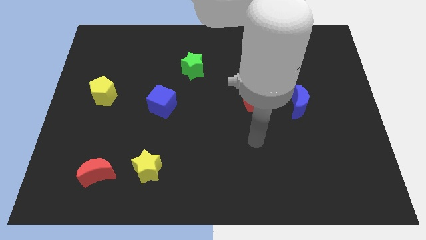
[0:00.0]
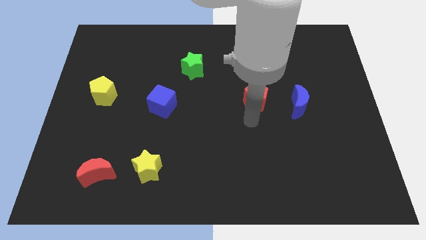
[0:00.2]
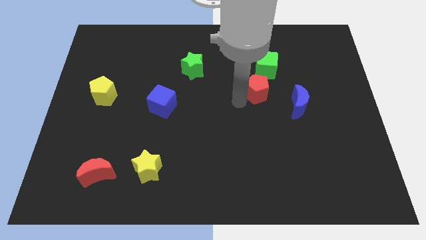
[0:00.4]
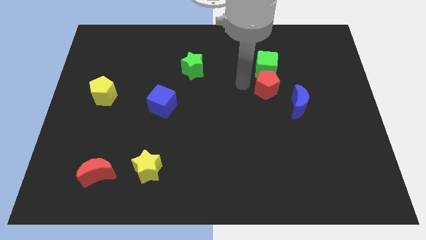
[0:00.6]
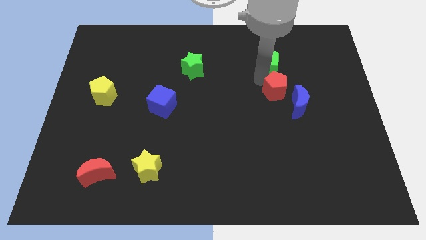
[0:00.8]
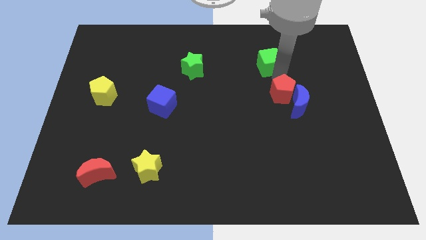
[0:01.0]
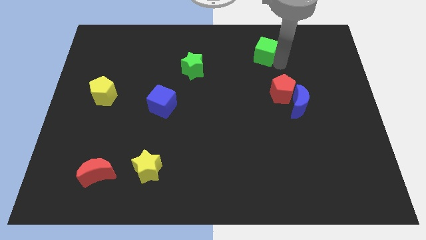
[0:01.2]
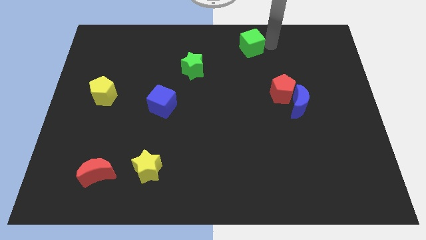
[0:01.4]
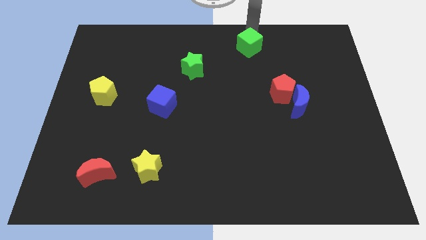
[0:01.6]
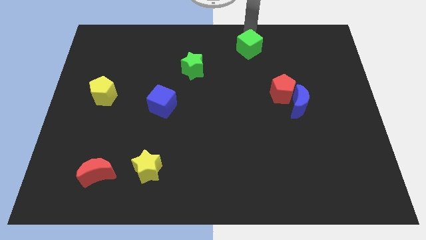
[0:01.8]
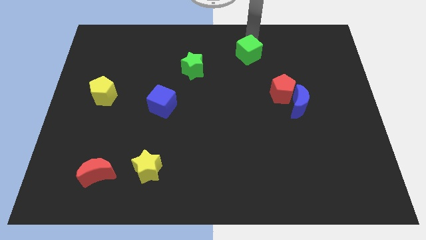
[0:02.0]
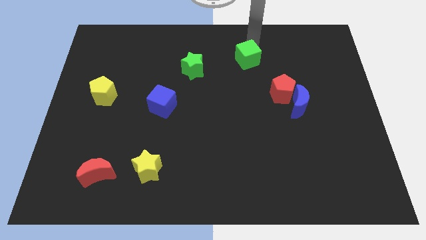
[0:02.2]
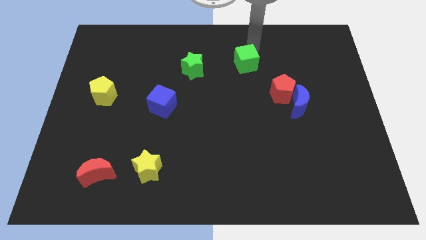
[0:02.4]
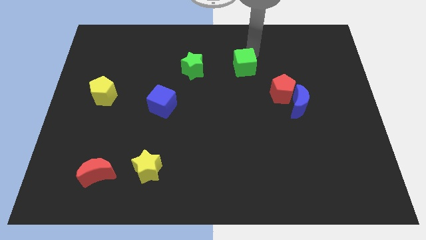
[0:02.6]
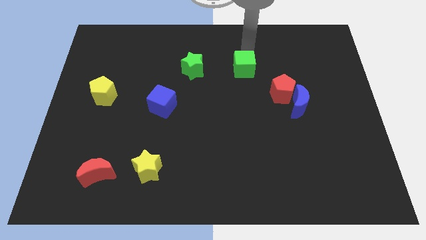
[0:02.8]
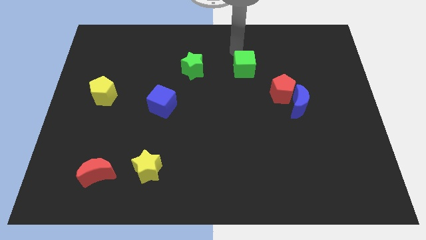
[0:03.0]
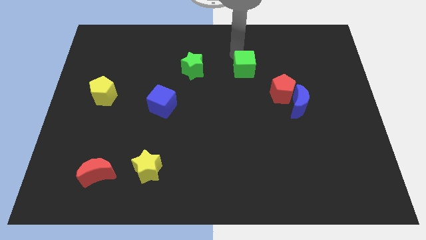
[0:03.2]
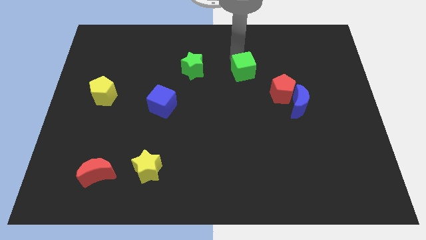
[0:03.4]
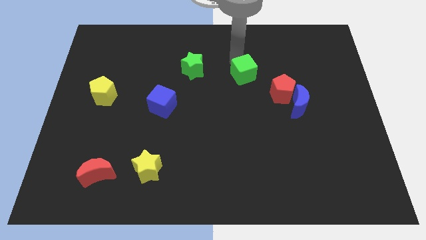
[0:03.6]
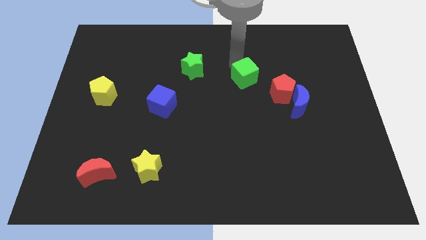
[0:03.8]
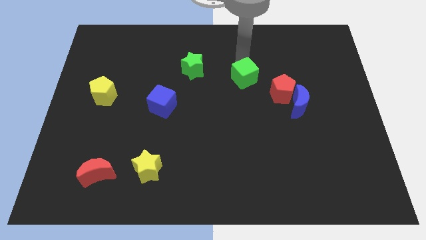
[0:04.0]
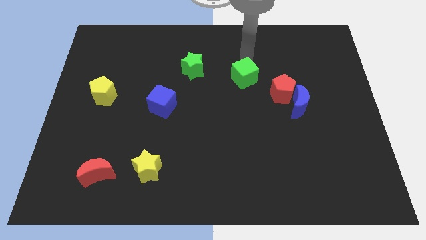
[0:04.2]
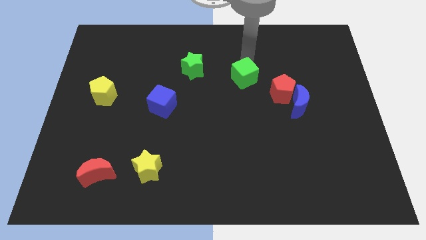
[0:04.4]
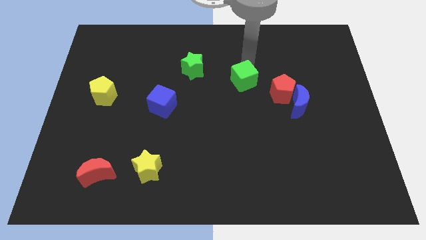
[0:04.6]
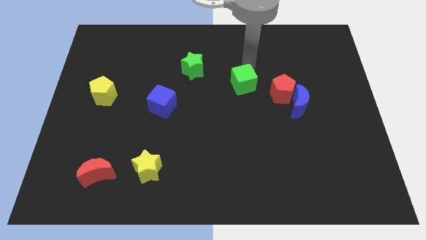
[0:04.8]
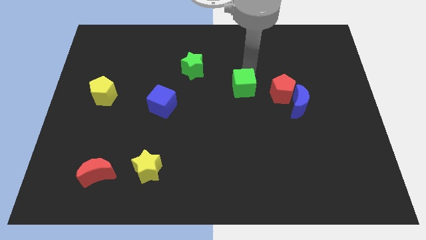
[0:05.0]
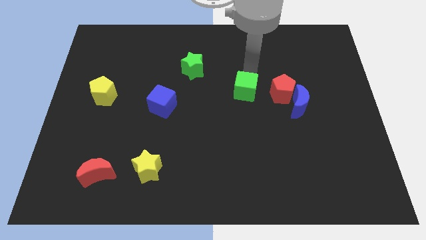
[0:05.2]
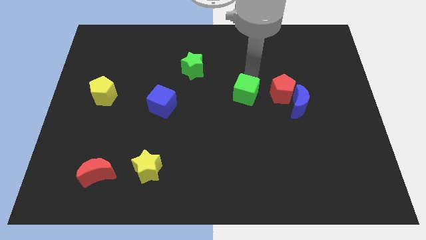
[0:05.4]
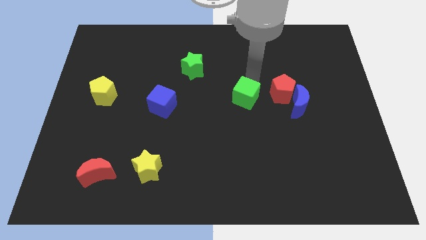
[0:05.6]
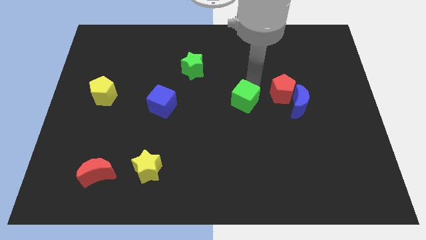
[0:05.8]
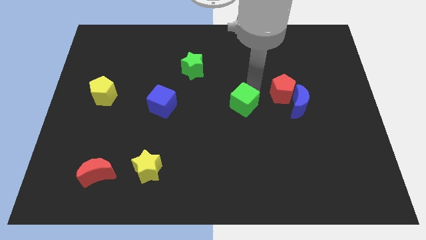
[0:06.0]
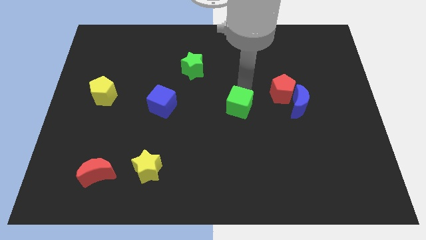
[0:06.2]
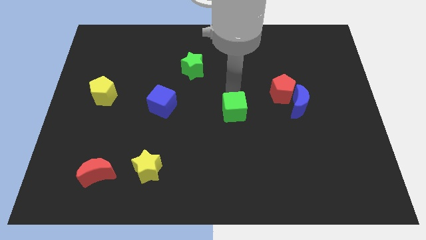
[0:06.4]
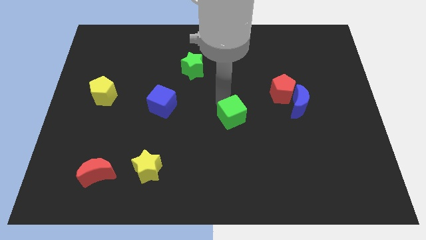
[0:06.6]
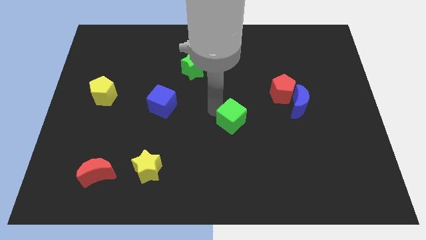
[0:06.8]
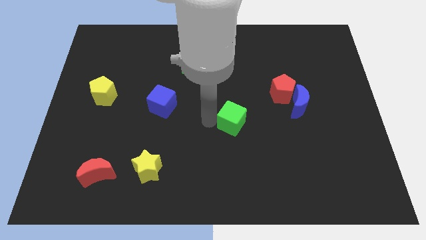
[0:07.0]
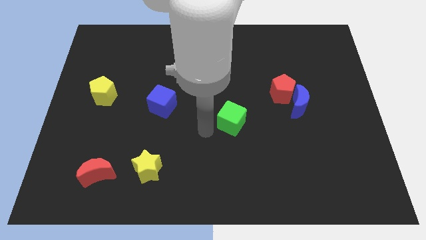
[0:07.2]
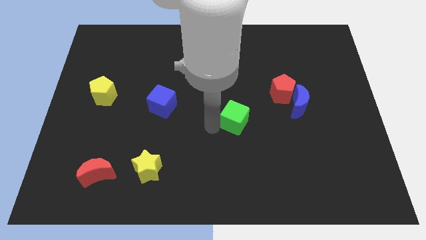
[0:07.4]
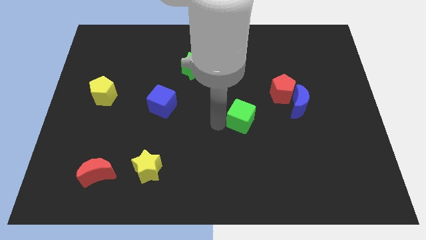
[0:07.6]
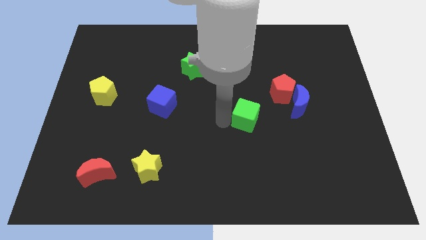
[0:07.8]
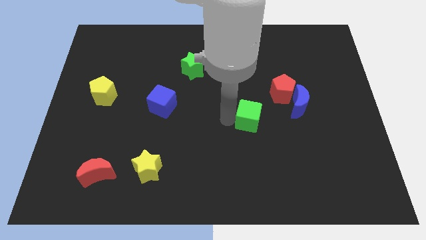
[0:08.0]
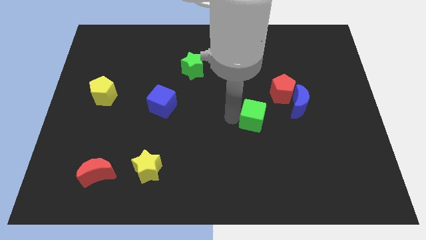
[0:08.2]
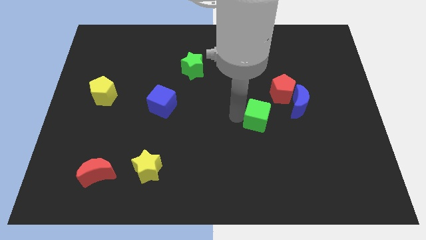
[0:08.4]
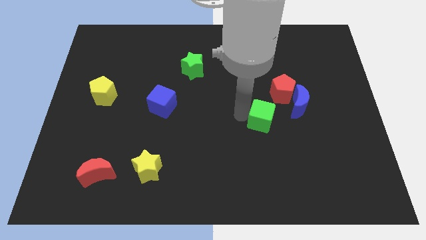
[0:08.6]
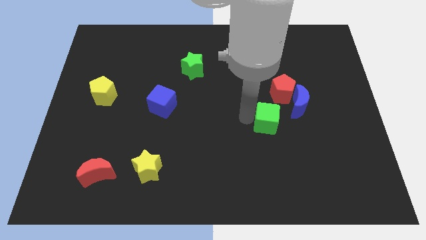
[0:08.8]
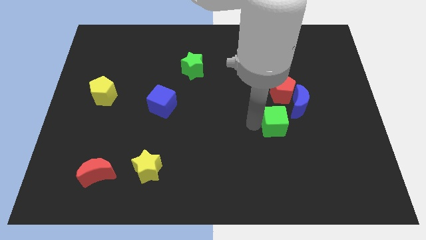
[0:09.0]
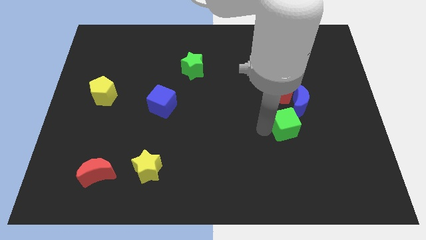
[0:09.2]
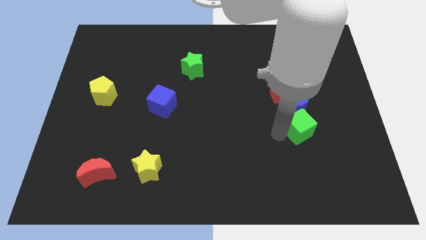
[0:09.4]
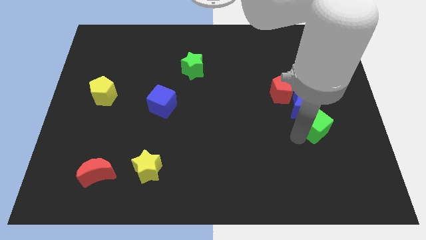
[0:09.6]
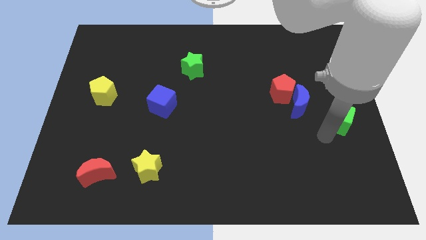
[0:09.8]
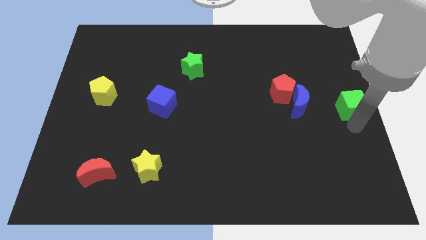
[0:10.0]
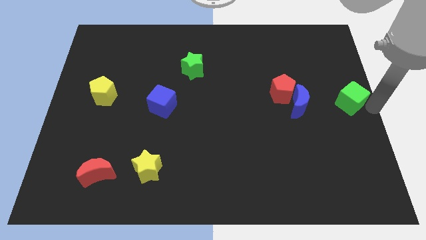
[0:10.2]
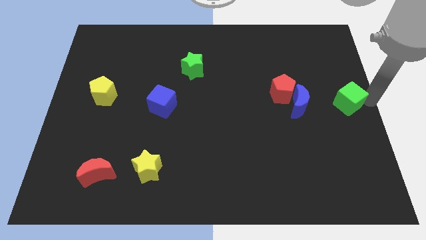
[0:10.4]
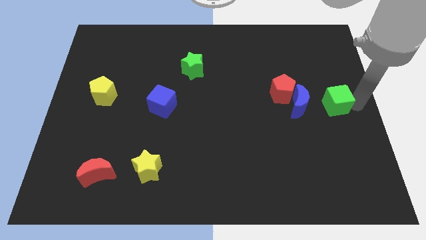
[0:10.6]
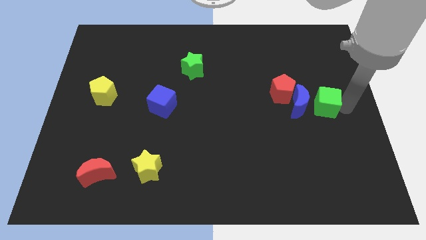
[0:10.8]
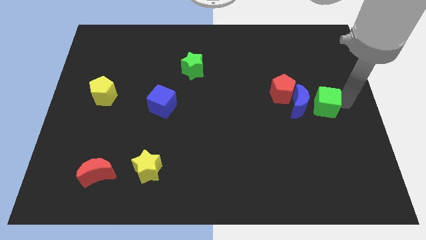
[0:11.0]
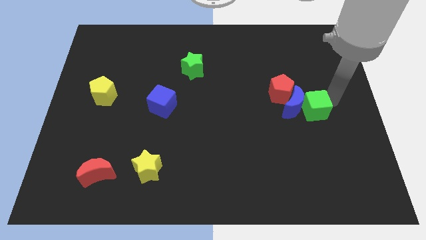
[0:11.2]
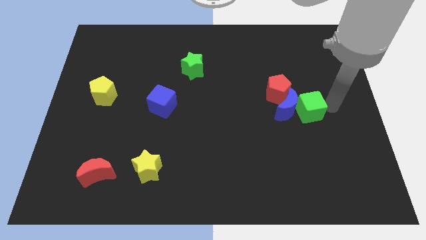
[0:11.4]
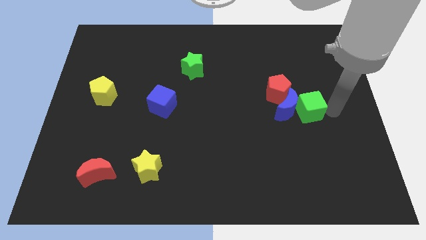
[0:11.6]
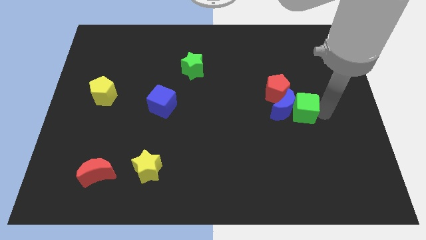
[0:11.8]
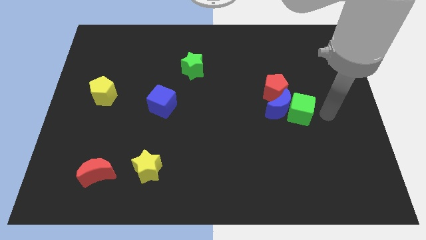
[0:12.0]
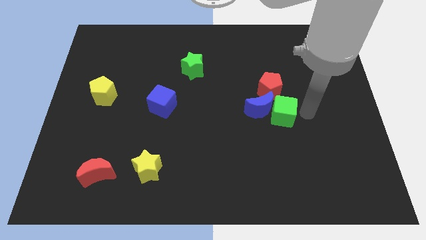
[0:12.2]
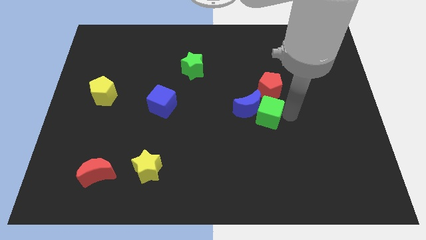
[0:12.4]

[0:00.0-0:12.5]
slide the green cube diagonally down and to the left of the red pentagon
